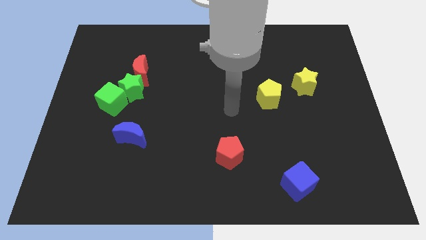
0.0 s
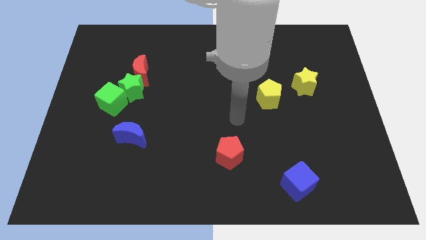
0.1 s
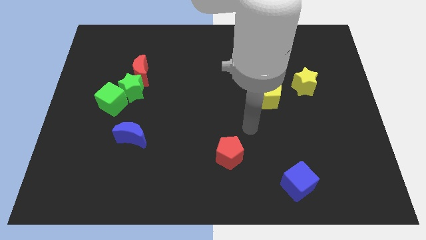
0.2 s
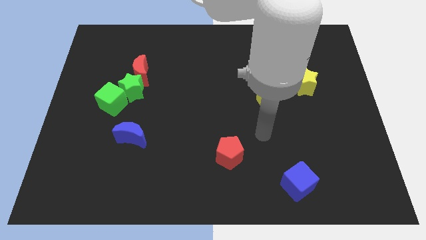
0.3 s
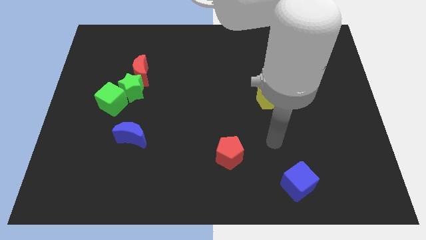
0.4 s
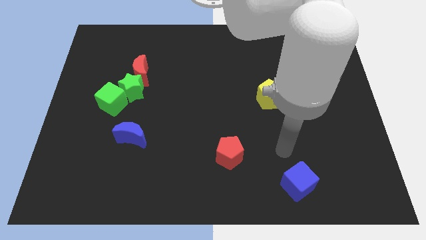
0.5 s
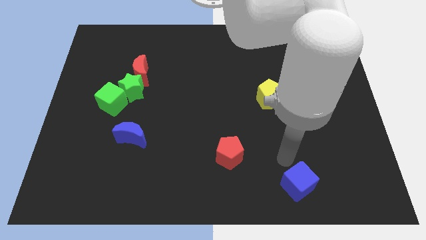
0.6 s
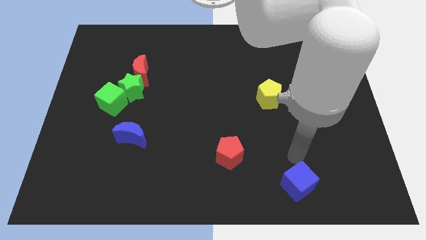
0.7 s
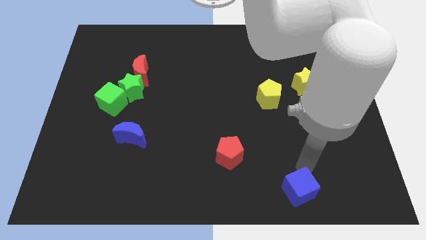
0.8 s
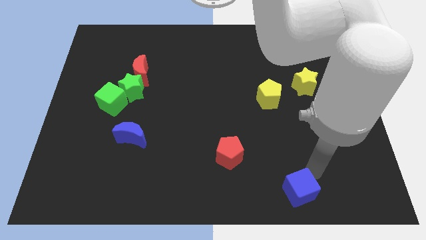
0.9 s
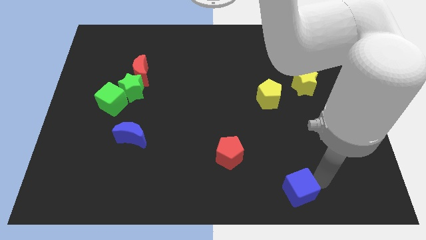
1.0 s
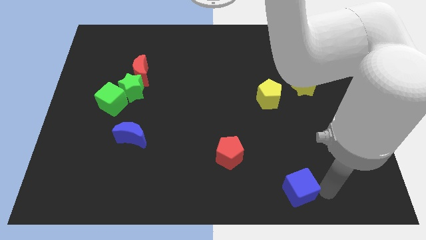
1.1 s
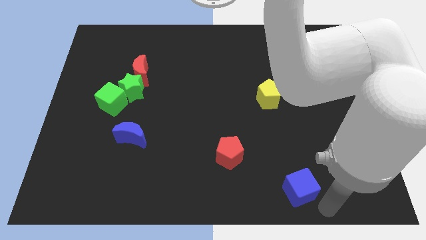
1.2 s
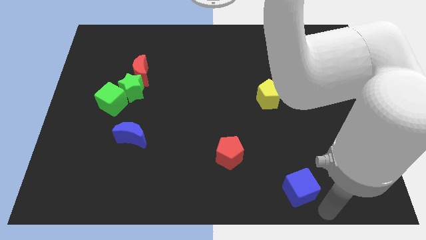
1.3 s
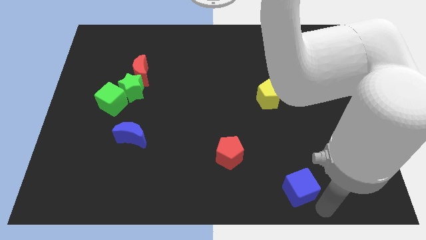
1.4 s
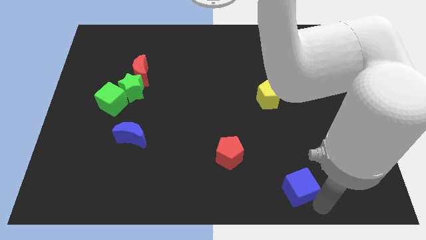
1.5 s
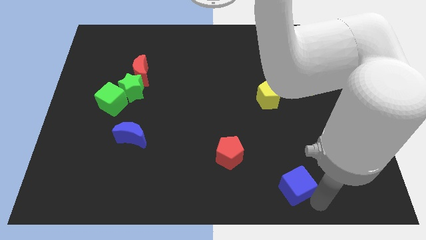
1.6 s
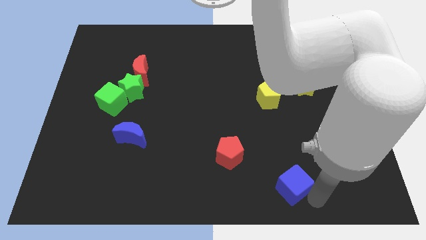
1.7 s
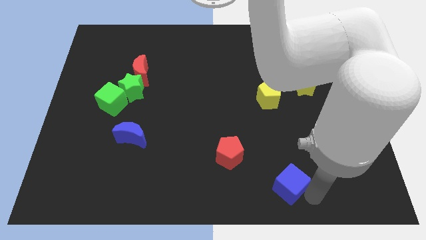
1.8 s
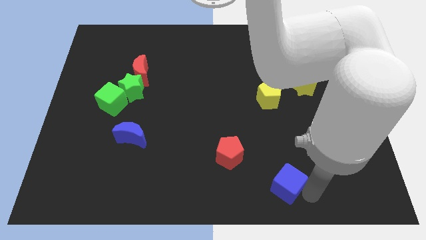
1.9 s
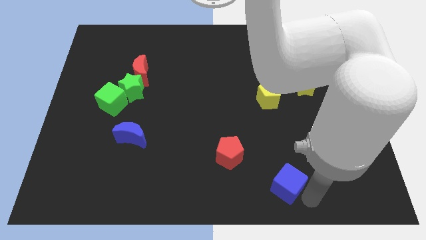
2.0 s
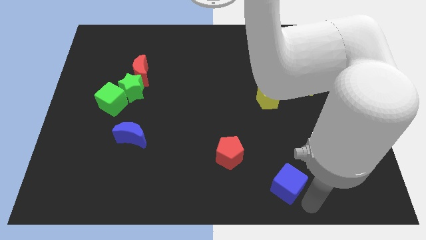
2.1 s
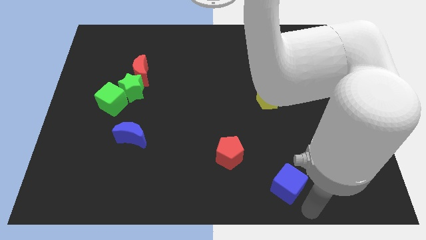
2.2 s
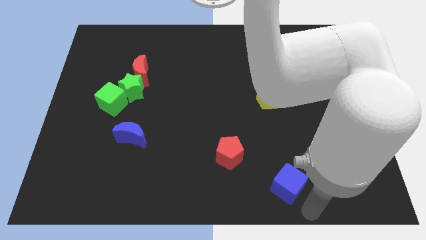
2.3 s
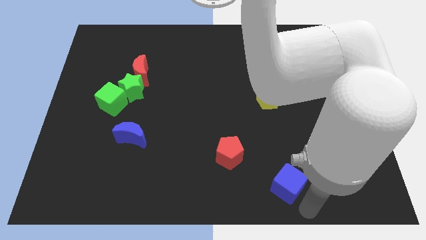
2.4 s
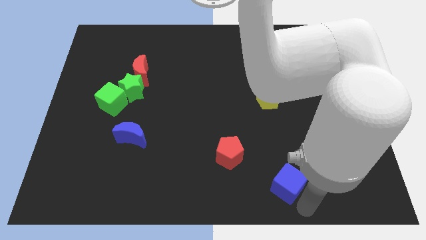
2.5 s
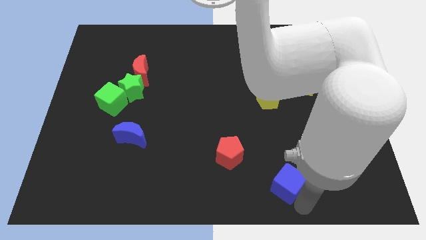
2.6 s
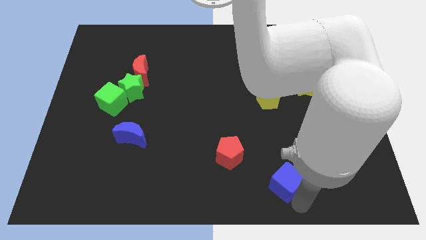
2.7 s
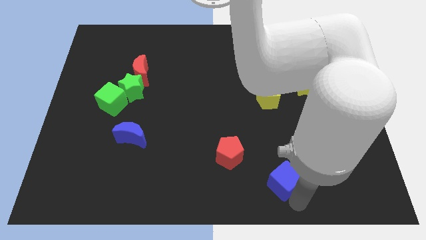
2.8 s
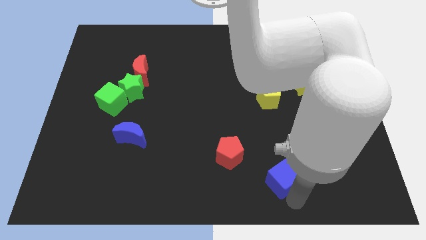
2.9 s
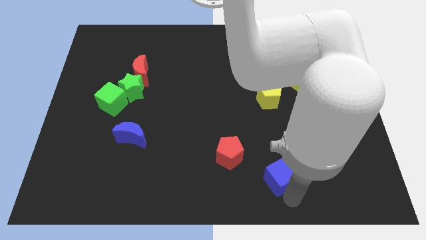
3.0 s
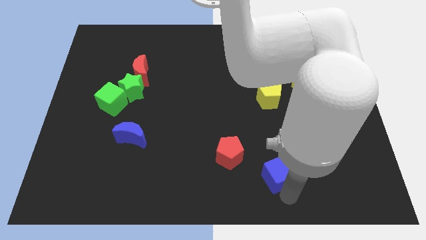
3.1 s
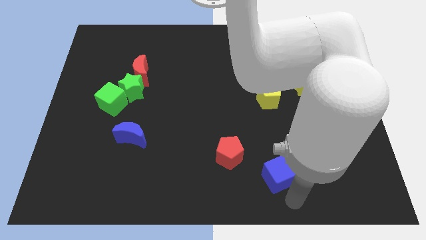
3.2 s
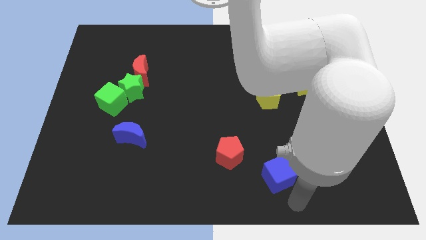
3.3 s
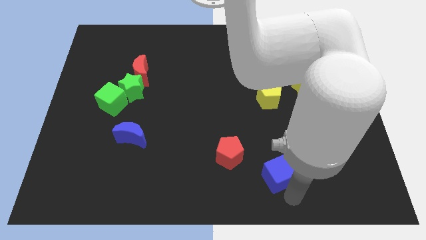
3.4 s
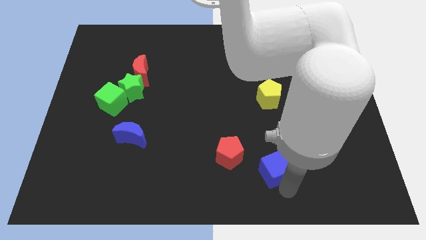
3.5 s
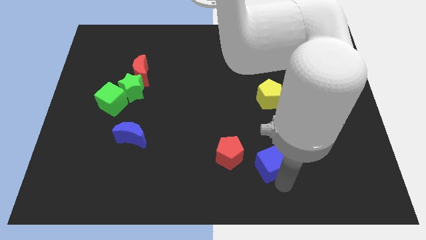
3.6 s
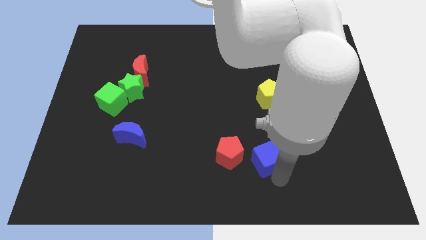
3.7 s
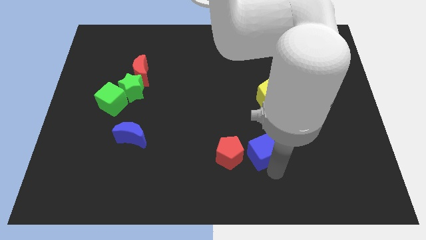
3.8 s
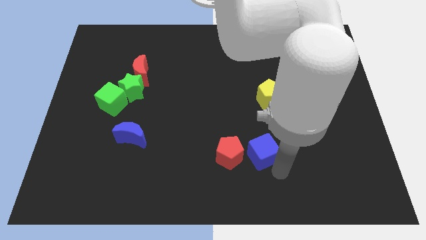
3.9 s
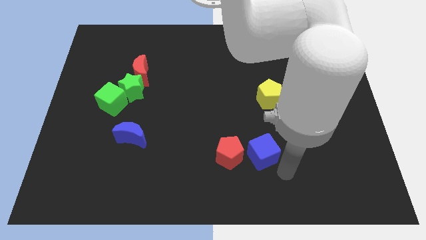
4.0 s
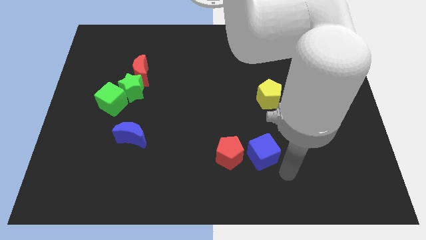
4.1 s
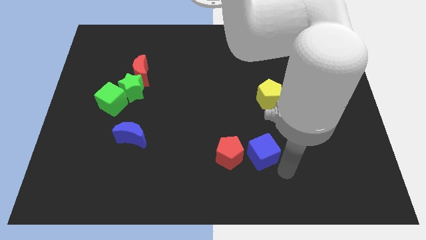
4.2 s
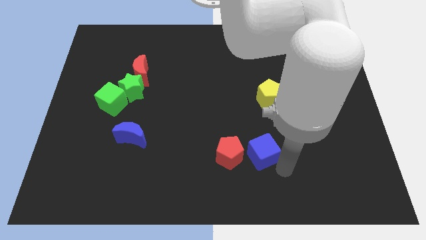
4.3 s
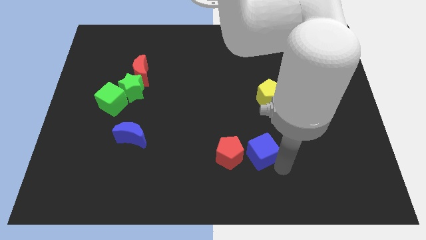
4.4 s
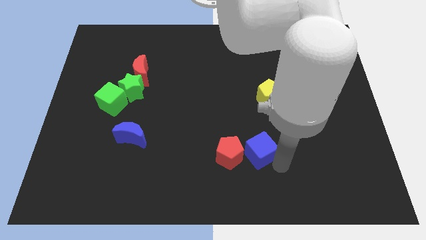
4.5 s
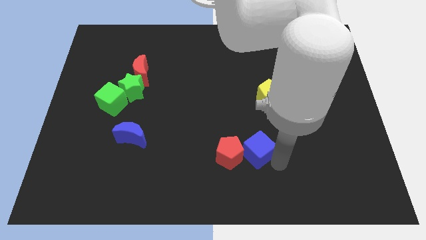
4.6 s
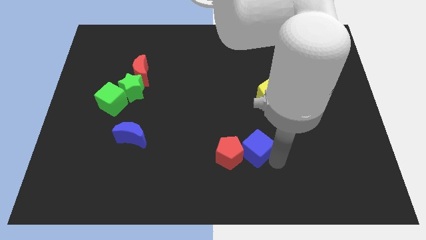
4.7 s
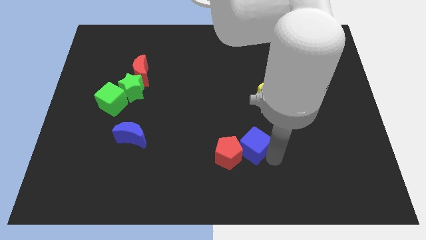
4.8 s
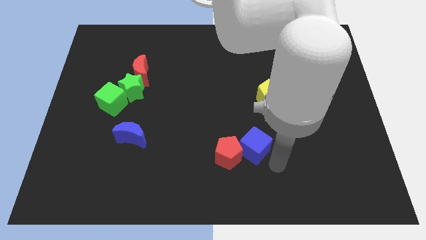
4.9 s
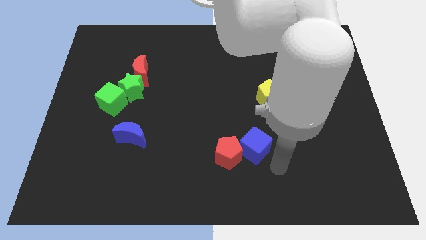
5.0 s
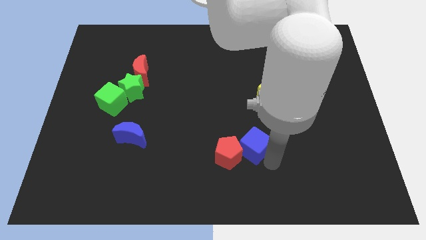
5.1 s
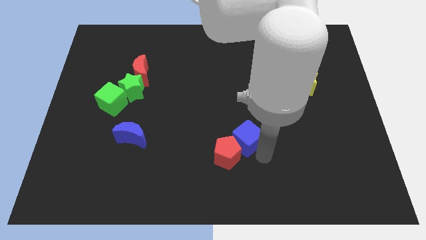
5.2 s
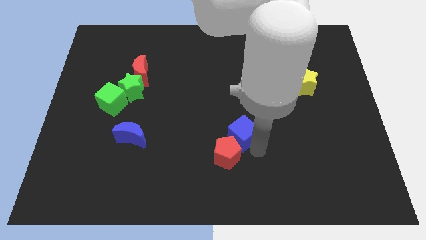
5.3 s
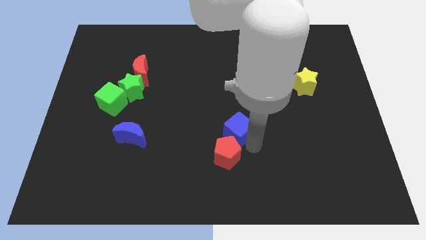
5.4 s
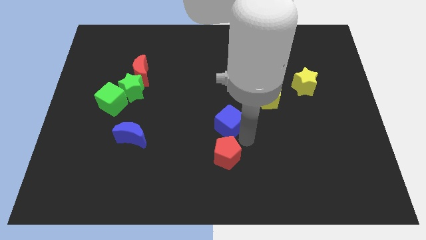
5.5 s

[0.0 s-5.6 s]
push the blue cube diagonally upwards and left

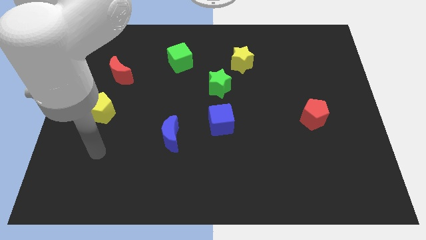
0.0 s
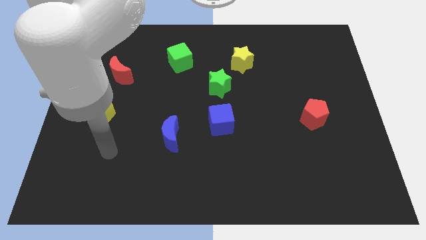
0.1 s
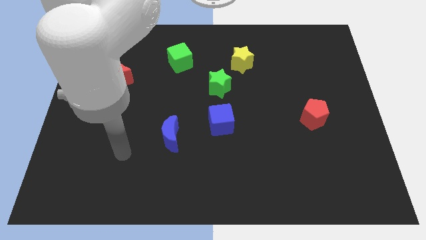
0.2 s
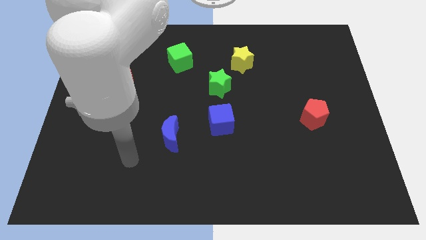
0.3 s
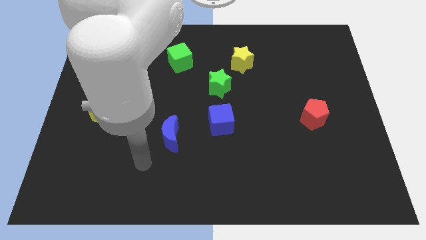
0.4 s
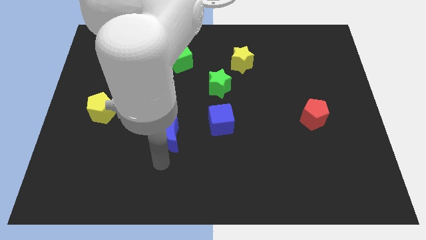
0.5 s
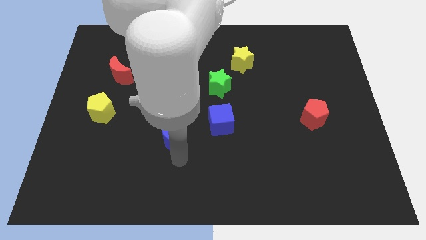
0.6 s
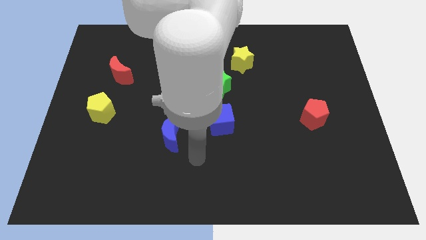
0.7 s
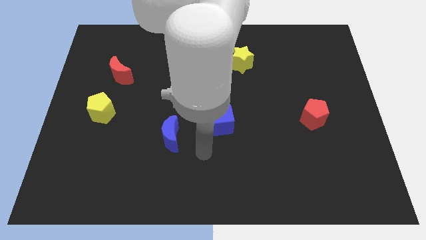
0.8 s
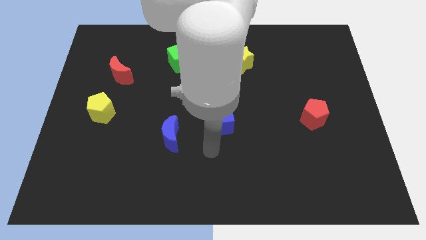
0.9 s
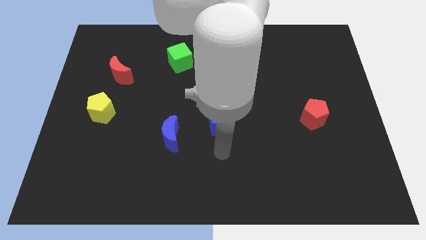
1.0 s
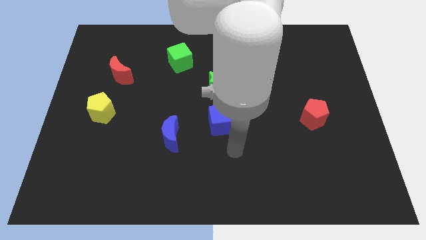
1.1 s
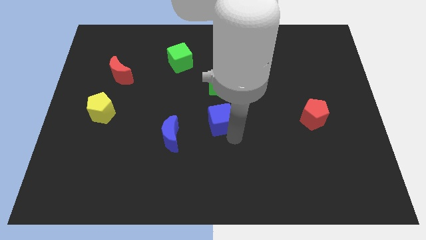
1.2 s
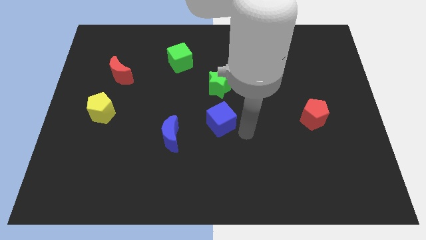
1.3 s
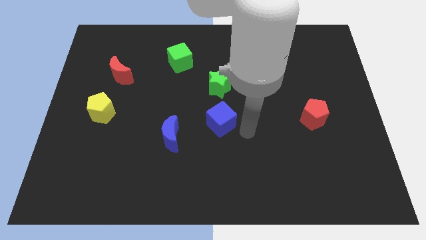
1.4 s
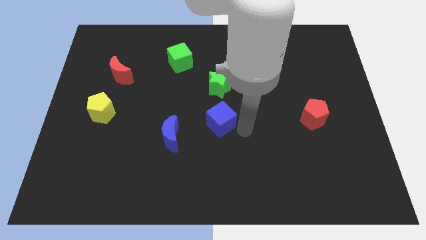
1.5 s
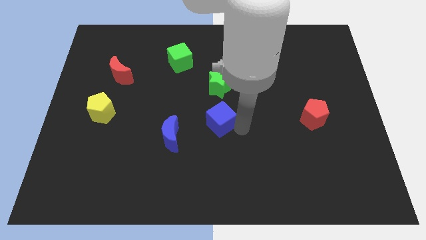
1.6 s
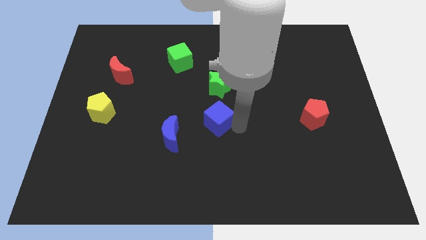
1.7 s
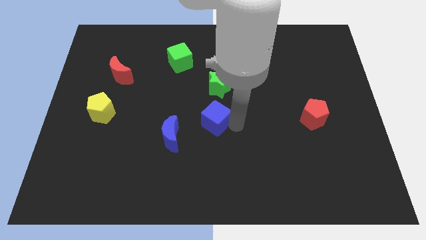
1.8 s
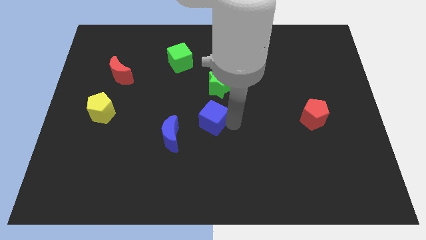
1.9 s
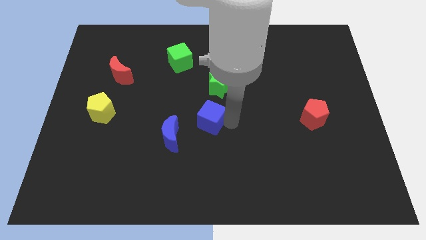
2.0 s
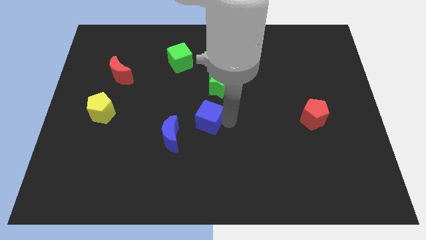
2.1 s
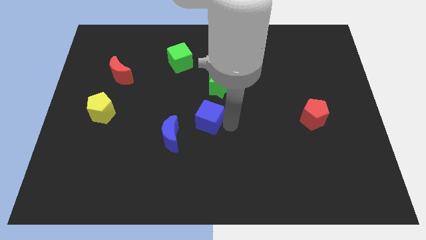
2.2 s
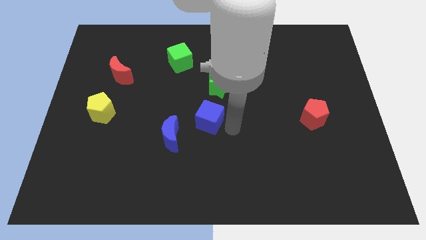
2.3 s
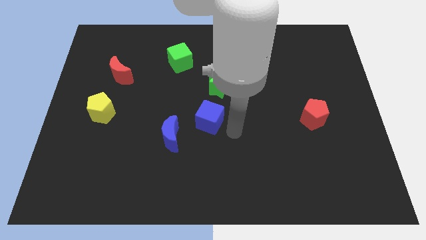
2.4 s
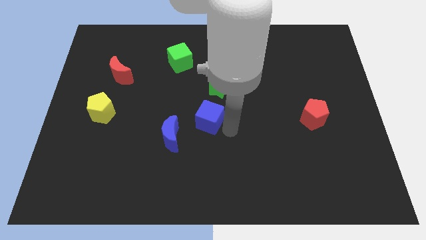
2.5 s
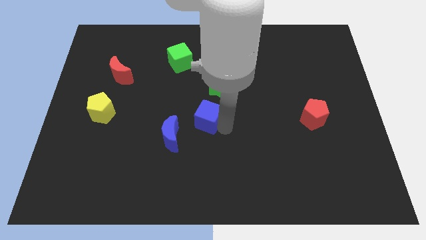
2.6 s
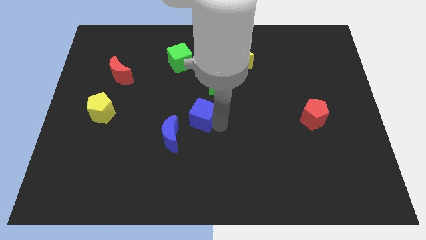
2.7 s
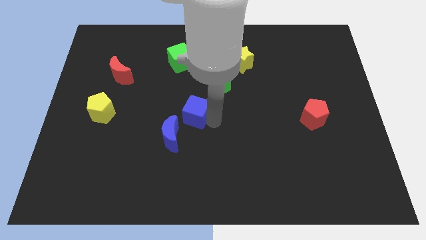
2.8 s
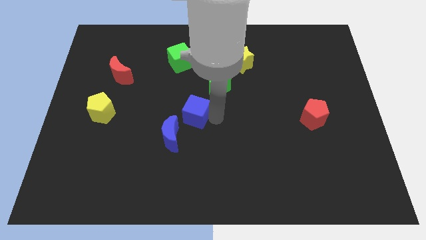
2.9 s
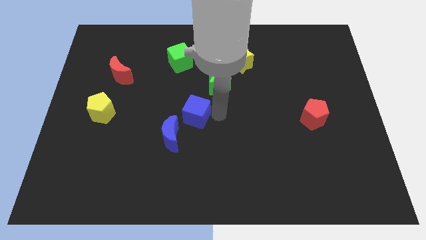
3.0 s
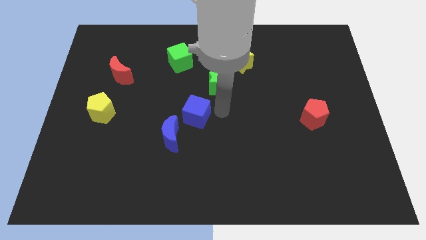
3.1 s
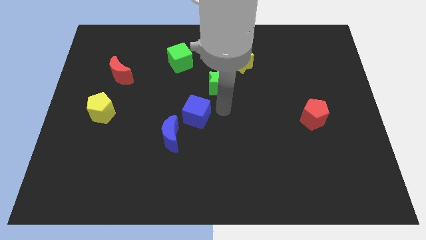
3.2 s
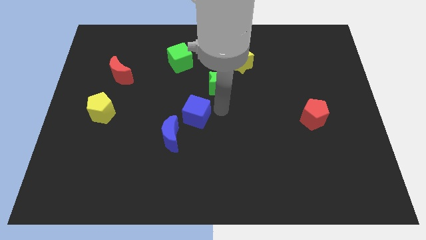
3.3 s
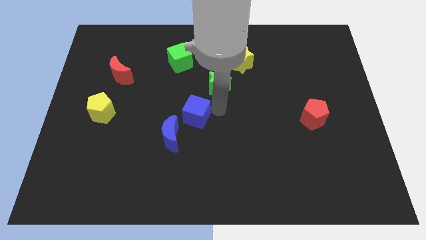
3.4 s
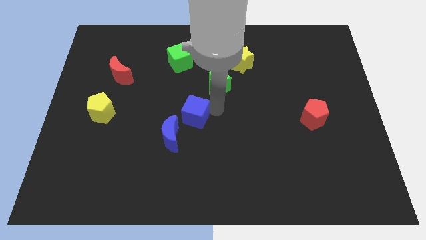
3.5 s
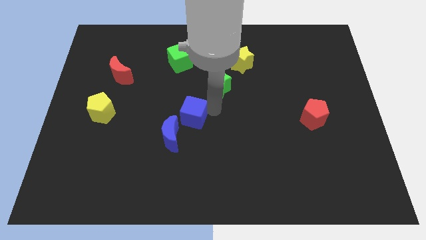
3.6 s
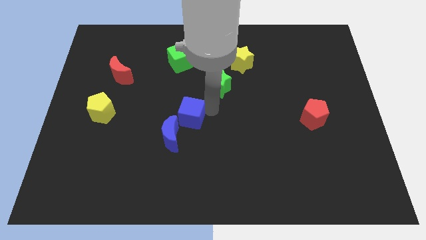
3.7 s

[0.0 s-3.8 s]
slightly slide the blue cube left
